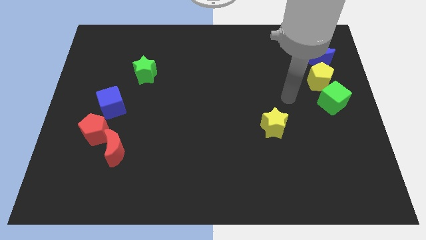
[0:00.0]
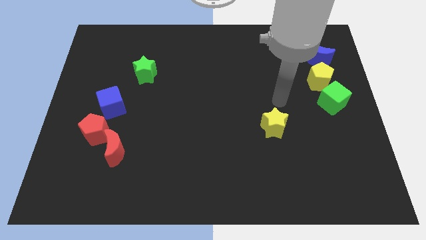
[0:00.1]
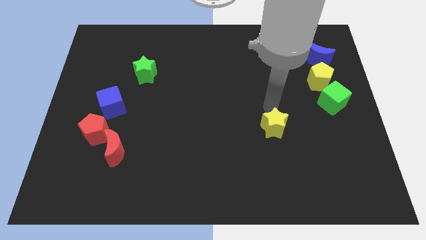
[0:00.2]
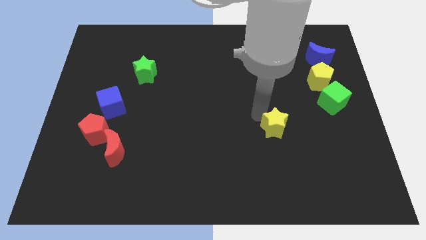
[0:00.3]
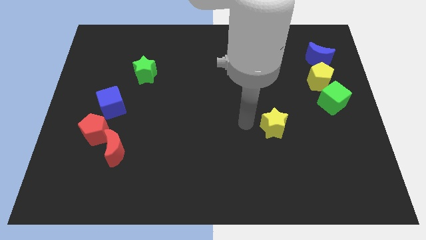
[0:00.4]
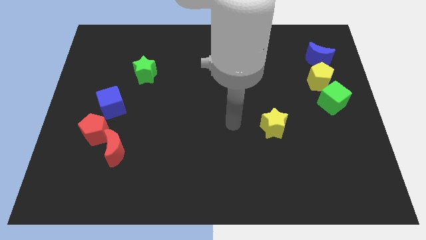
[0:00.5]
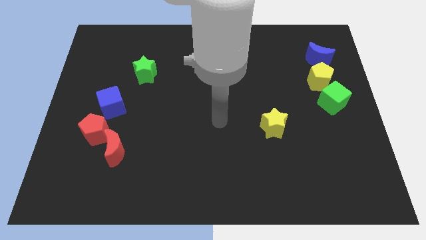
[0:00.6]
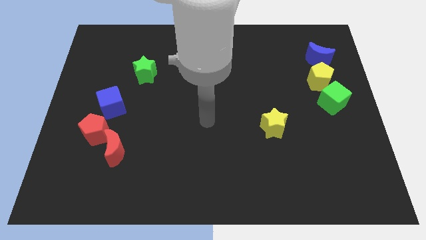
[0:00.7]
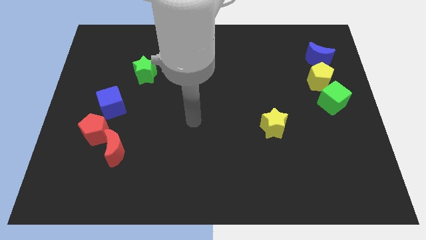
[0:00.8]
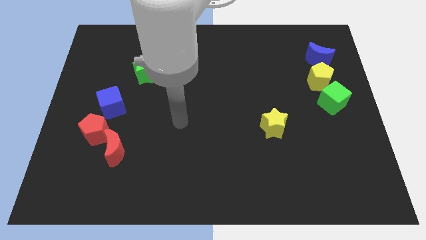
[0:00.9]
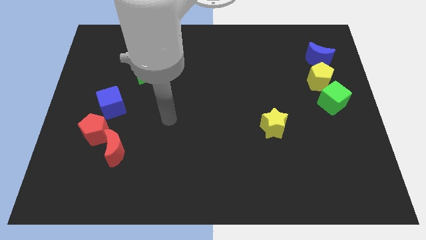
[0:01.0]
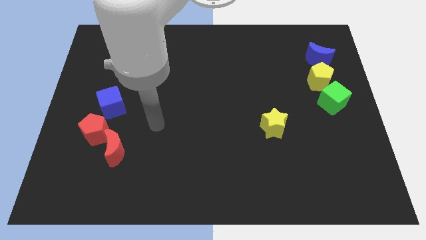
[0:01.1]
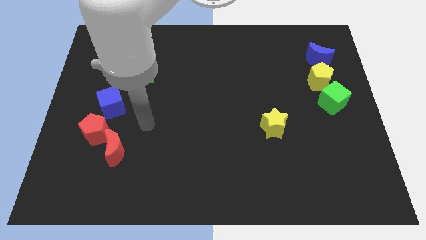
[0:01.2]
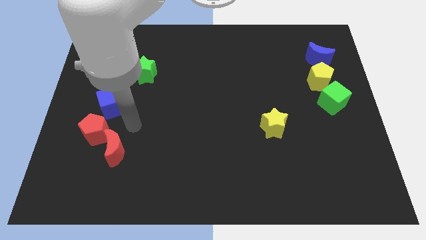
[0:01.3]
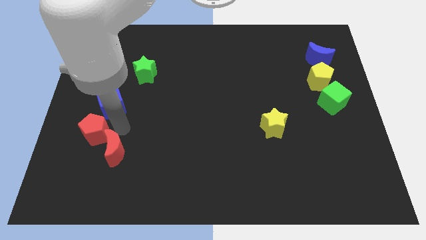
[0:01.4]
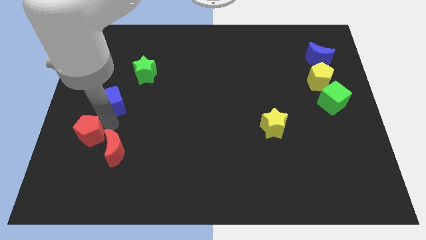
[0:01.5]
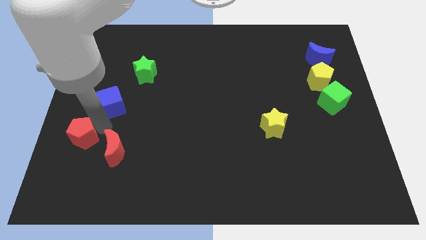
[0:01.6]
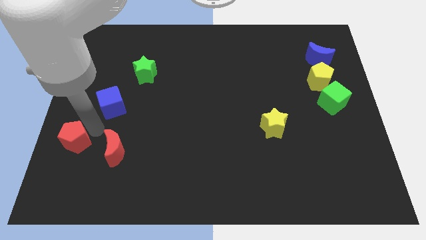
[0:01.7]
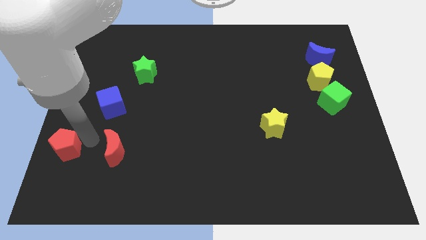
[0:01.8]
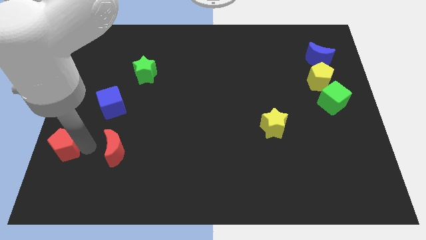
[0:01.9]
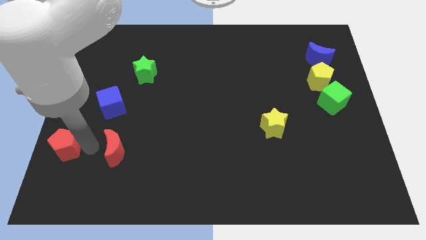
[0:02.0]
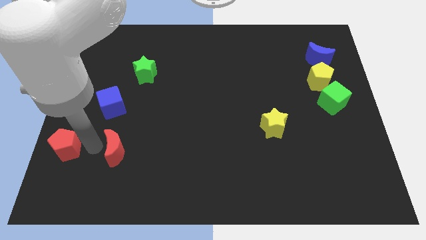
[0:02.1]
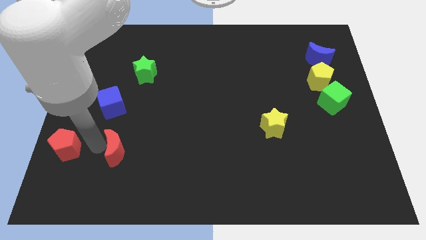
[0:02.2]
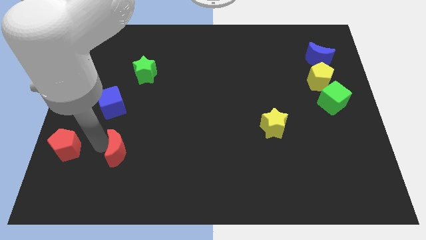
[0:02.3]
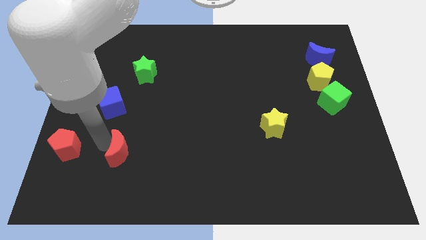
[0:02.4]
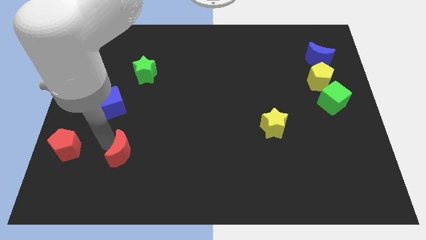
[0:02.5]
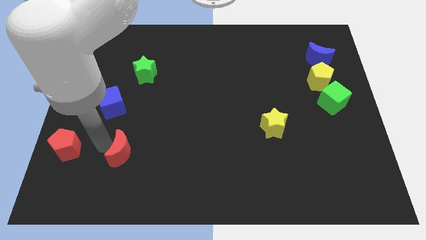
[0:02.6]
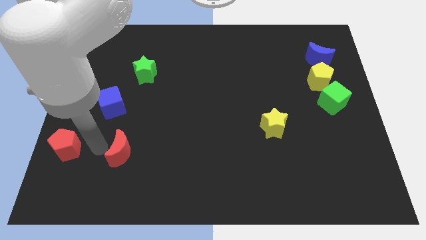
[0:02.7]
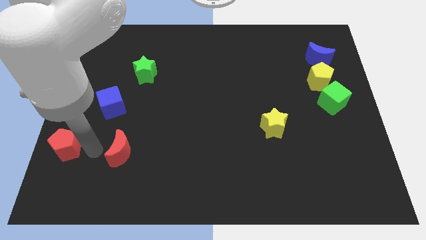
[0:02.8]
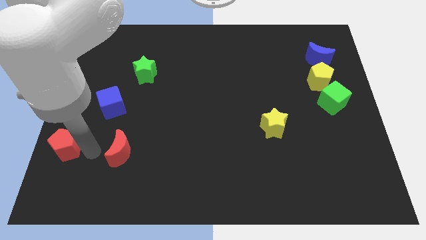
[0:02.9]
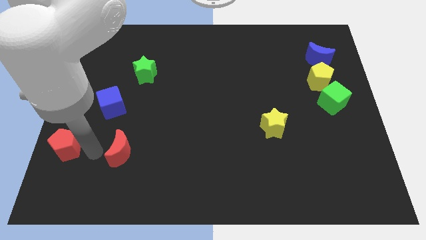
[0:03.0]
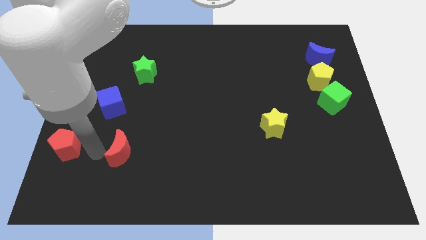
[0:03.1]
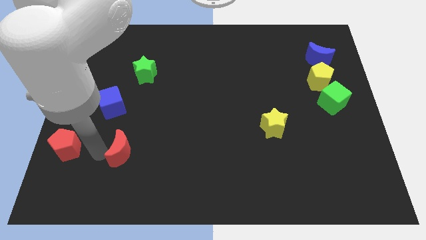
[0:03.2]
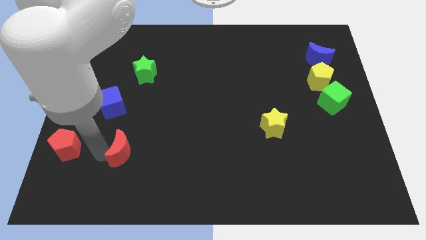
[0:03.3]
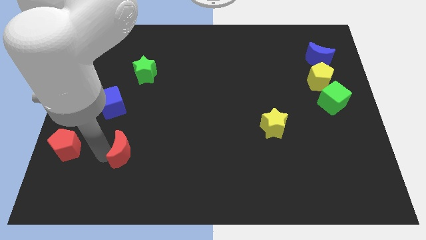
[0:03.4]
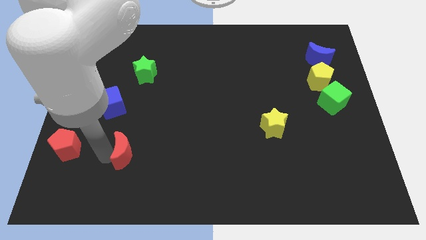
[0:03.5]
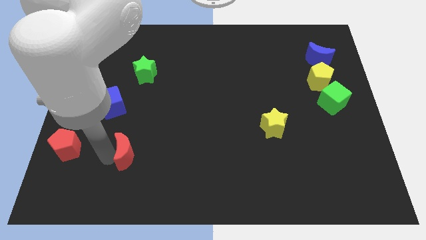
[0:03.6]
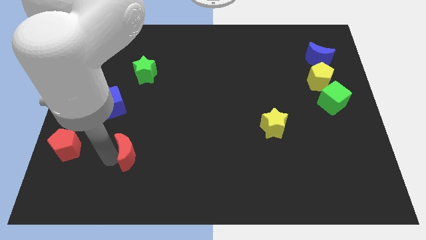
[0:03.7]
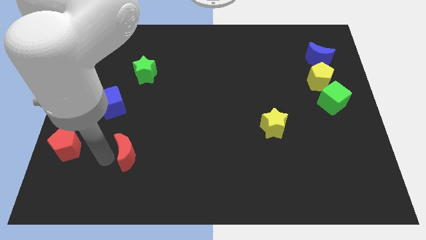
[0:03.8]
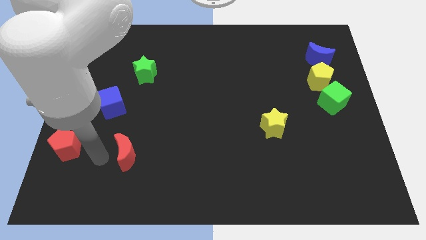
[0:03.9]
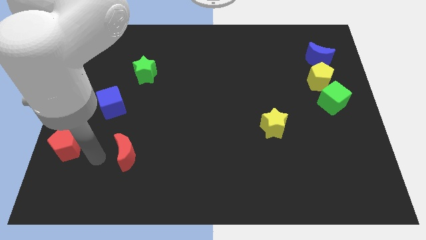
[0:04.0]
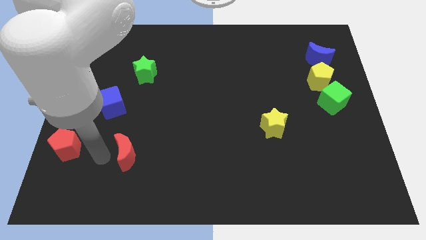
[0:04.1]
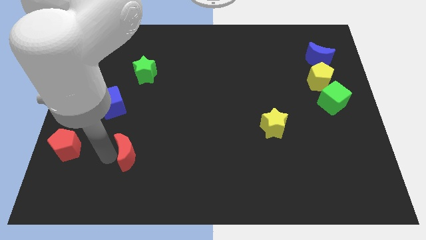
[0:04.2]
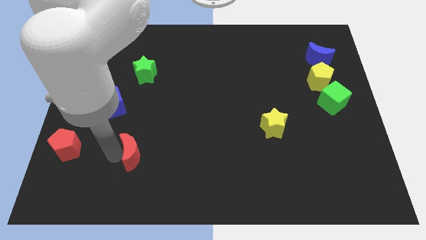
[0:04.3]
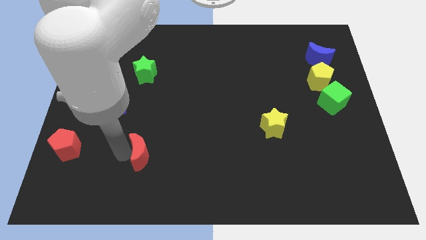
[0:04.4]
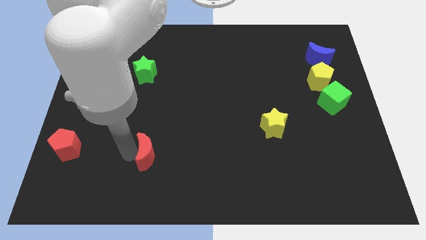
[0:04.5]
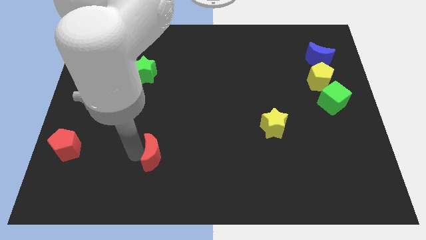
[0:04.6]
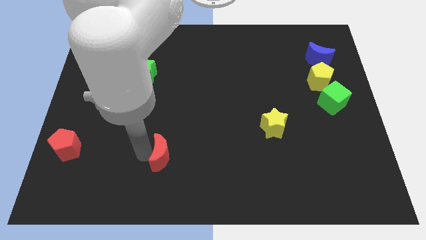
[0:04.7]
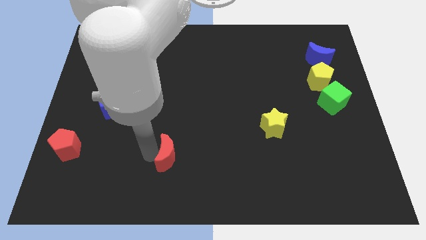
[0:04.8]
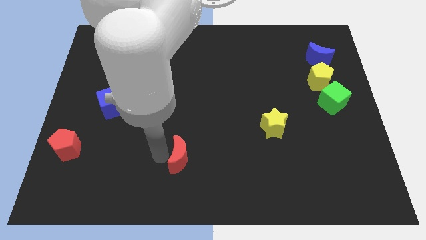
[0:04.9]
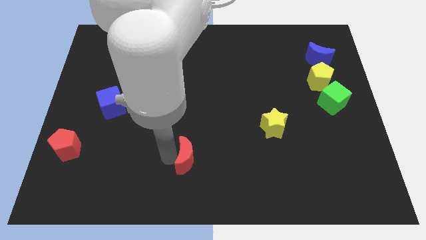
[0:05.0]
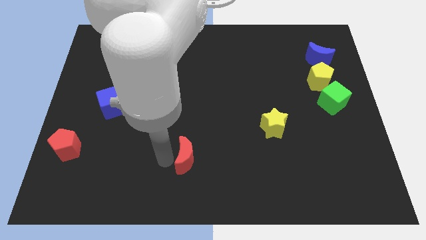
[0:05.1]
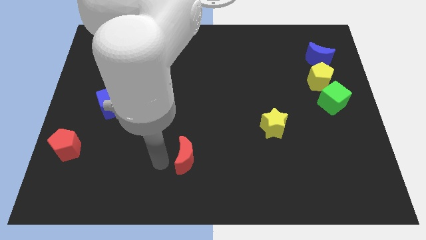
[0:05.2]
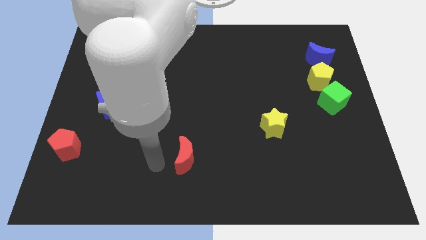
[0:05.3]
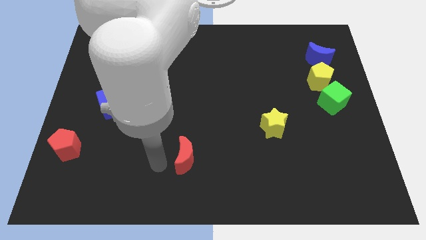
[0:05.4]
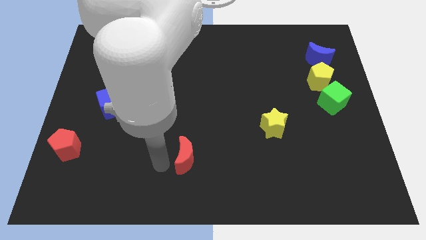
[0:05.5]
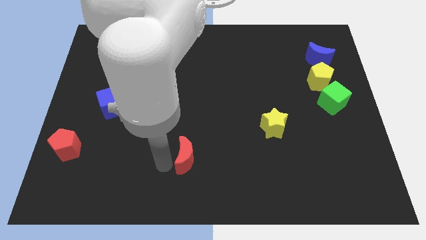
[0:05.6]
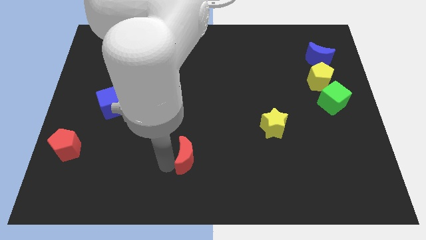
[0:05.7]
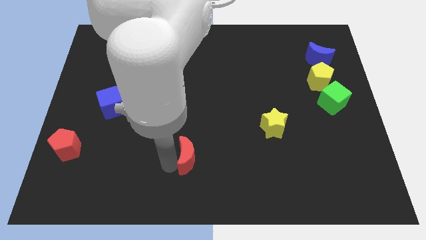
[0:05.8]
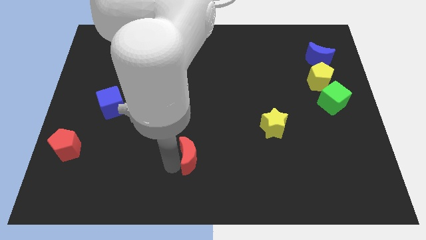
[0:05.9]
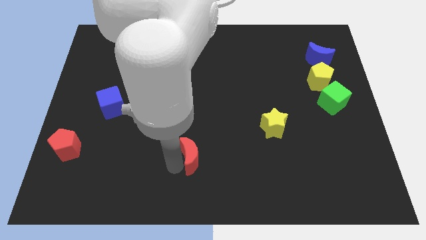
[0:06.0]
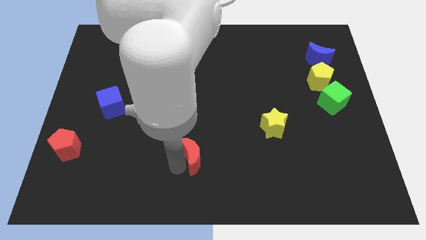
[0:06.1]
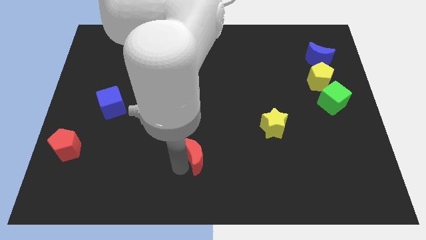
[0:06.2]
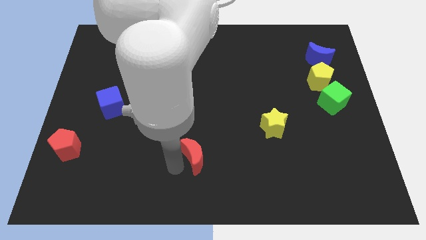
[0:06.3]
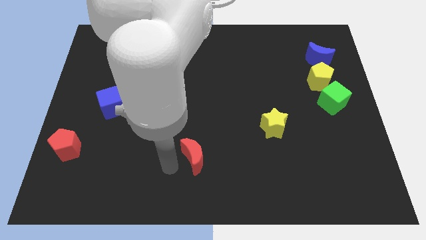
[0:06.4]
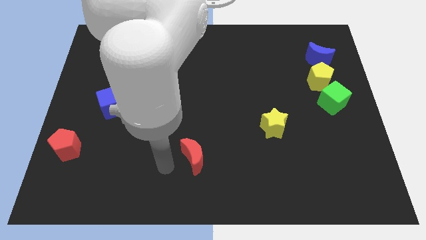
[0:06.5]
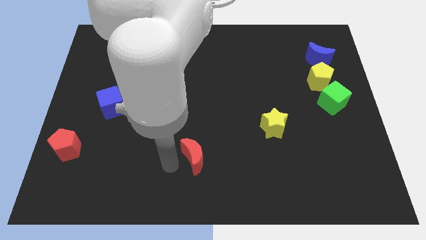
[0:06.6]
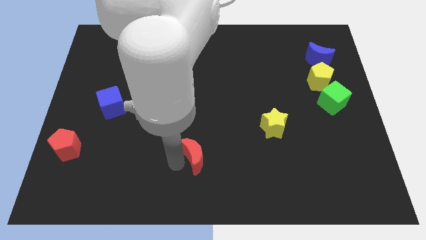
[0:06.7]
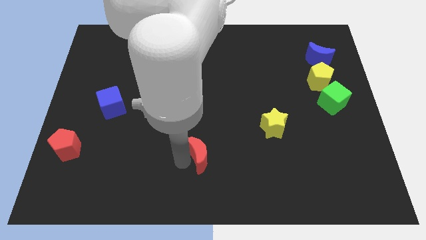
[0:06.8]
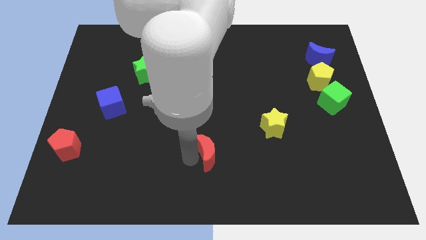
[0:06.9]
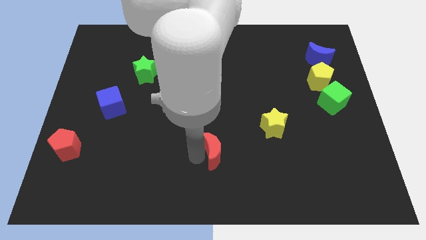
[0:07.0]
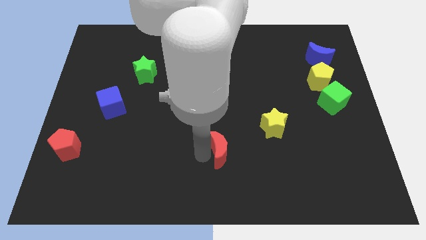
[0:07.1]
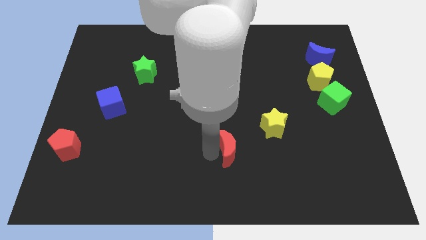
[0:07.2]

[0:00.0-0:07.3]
push the red moon to the bottom left of the yellow star
